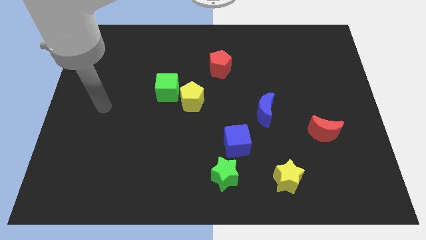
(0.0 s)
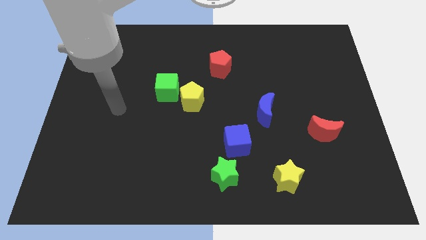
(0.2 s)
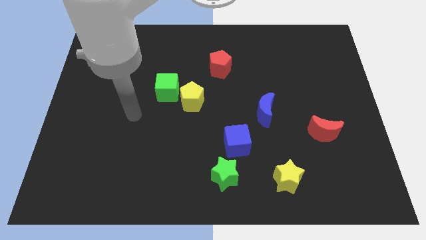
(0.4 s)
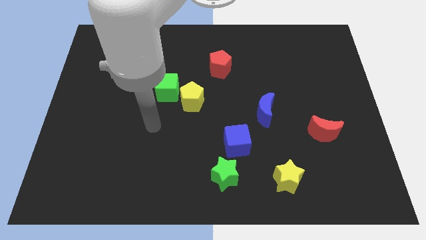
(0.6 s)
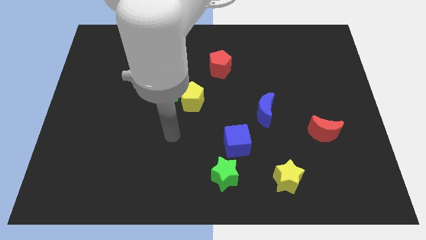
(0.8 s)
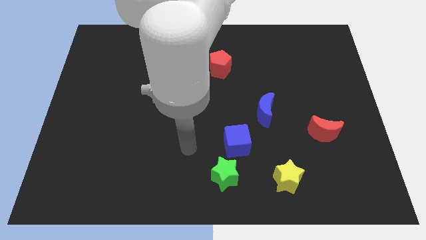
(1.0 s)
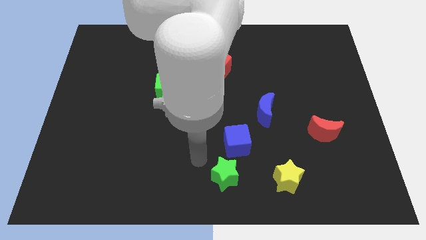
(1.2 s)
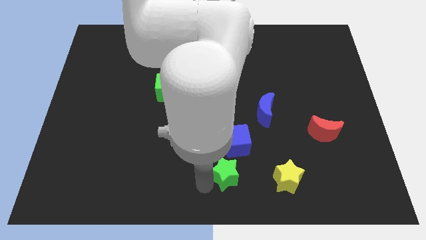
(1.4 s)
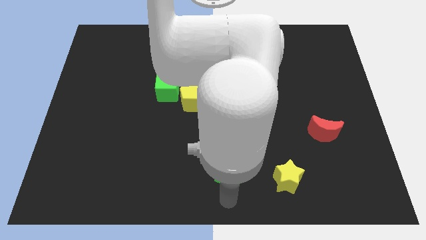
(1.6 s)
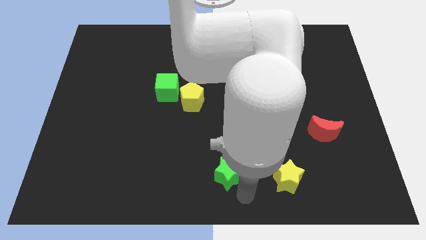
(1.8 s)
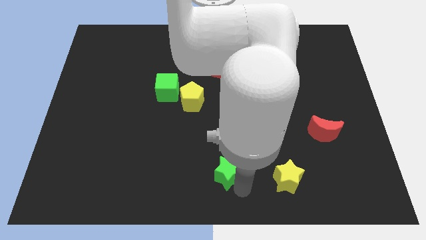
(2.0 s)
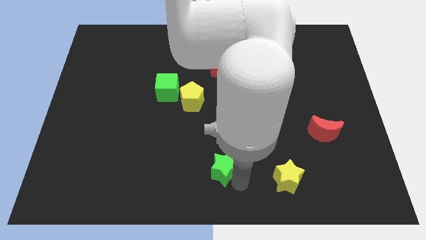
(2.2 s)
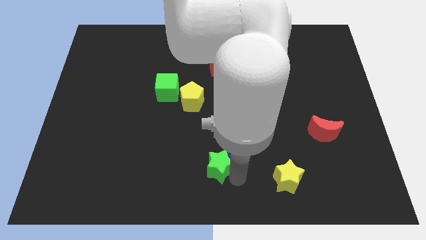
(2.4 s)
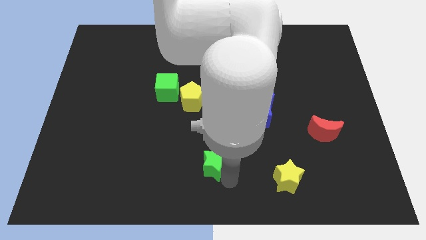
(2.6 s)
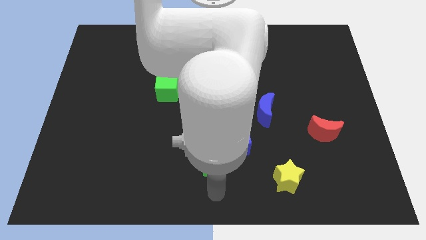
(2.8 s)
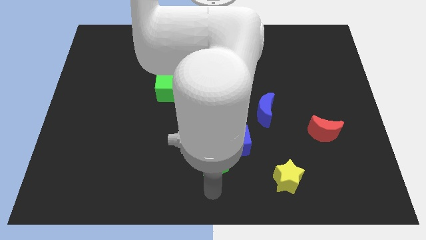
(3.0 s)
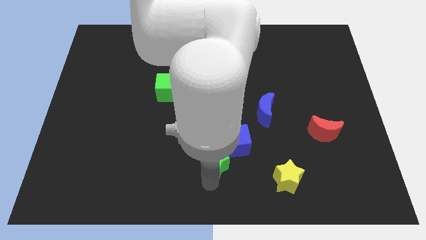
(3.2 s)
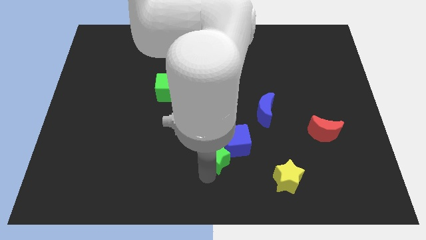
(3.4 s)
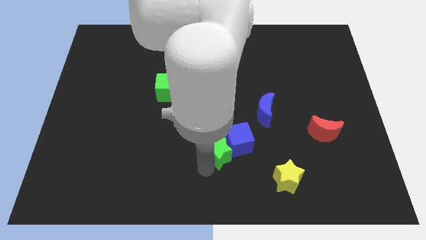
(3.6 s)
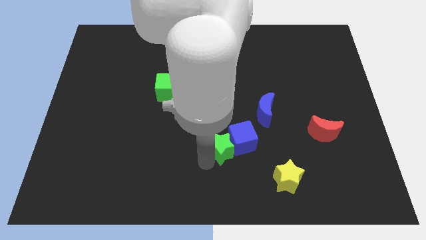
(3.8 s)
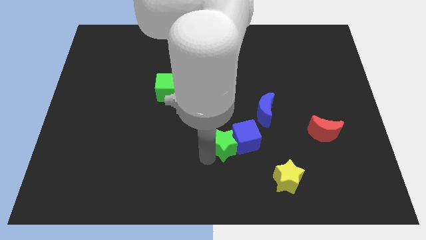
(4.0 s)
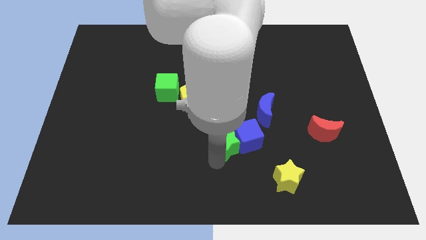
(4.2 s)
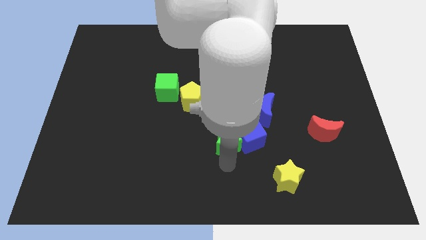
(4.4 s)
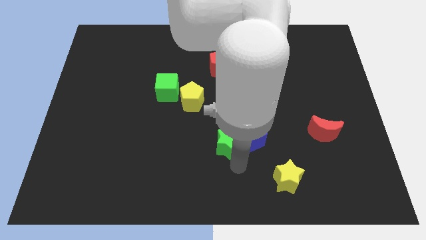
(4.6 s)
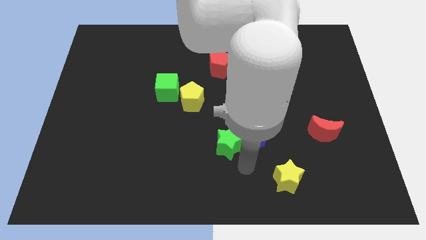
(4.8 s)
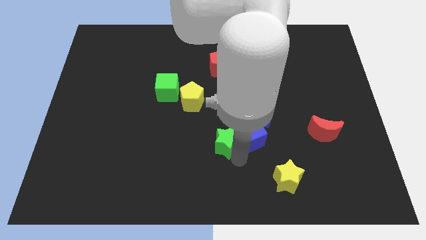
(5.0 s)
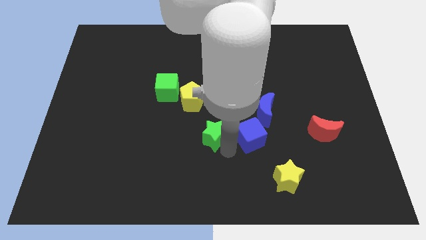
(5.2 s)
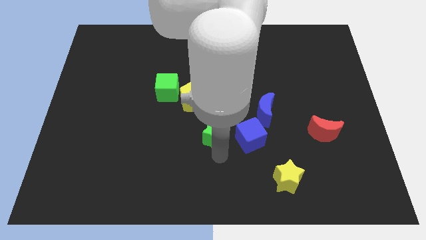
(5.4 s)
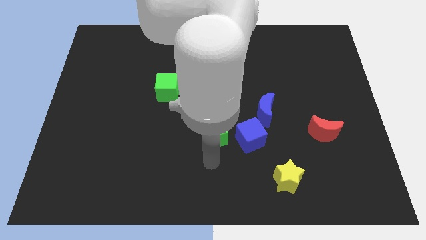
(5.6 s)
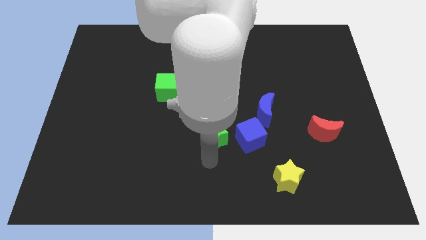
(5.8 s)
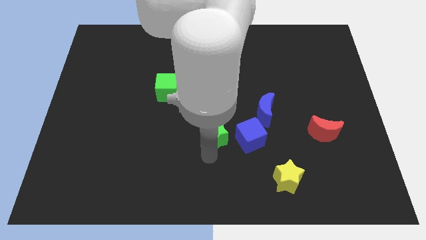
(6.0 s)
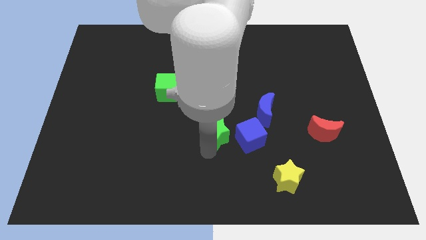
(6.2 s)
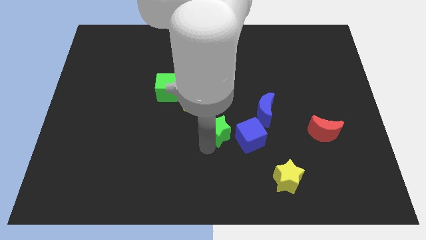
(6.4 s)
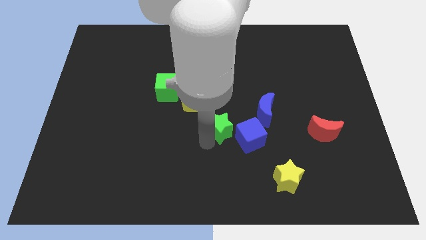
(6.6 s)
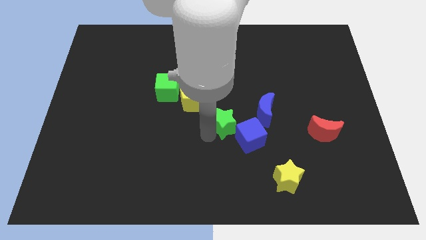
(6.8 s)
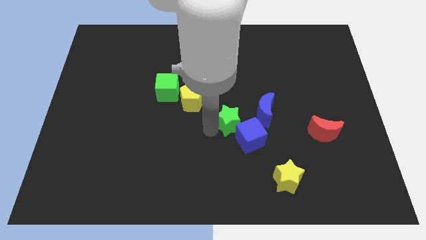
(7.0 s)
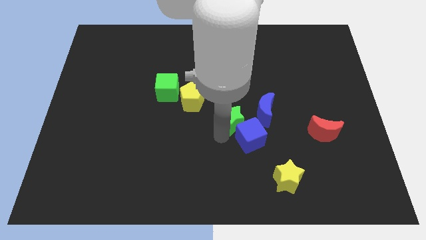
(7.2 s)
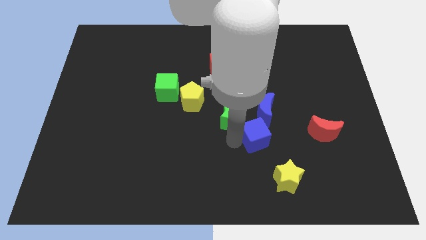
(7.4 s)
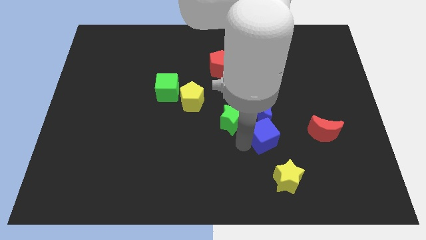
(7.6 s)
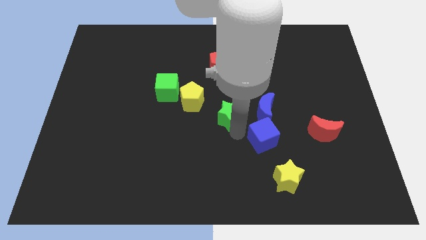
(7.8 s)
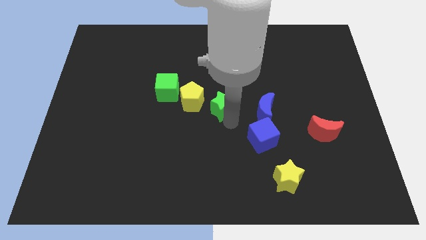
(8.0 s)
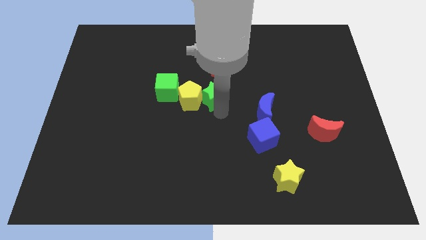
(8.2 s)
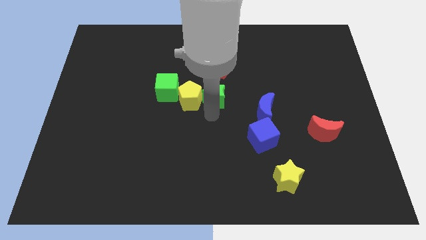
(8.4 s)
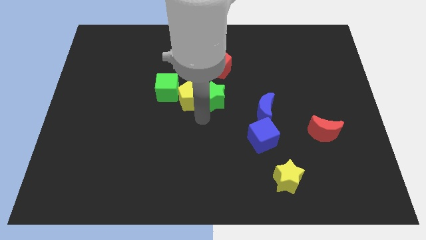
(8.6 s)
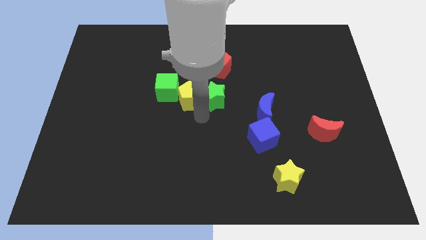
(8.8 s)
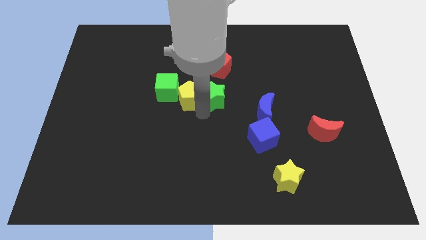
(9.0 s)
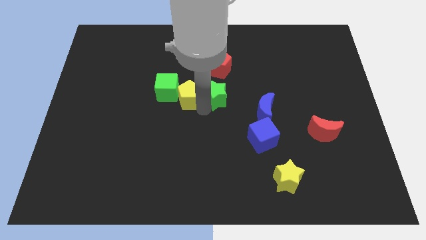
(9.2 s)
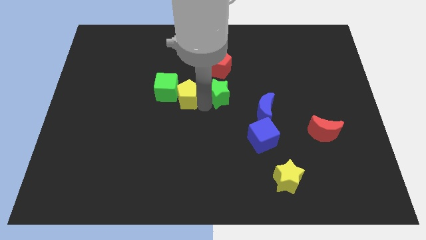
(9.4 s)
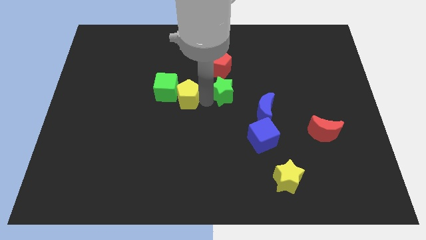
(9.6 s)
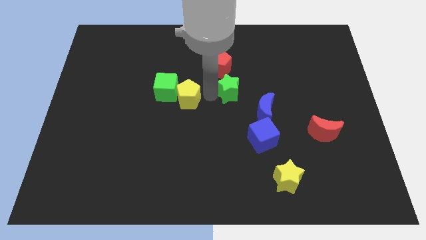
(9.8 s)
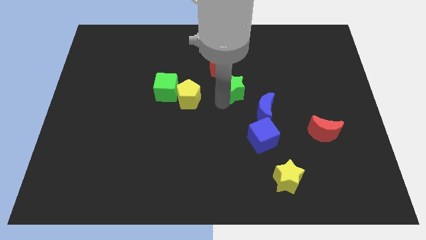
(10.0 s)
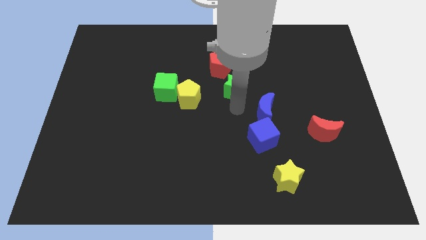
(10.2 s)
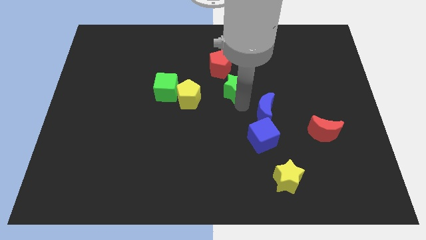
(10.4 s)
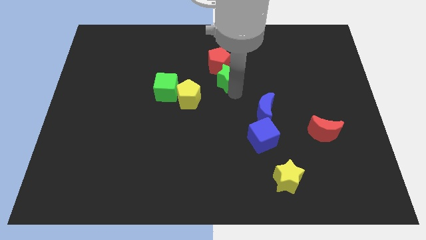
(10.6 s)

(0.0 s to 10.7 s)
move the green star to the red pentagon

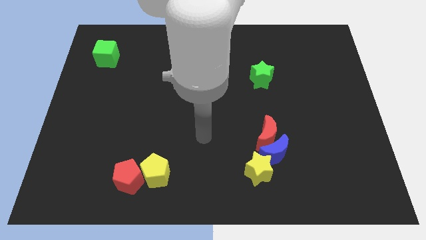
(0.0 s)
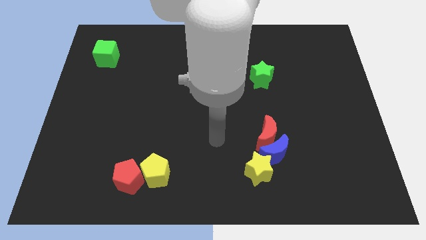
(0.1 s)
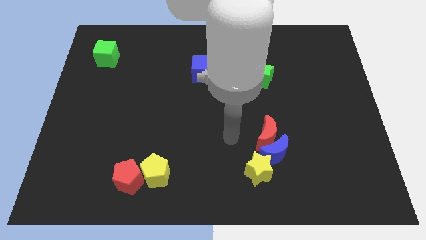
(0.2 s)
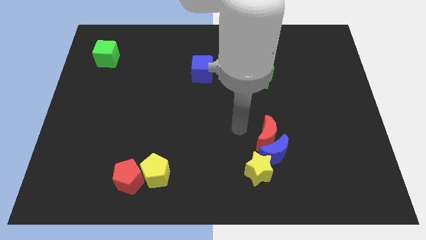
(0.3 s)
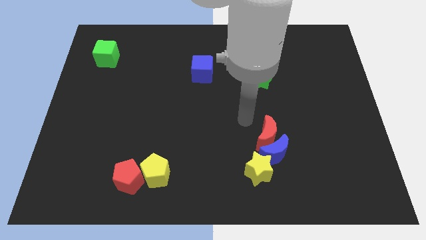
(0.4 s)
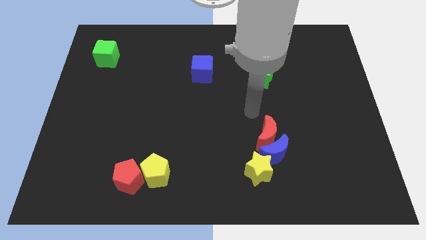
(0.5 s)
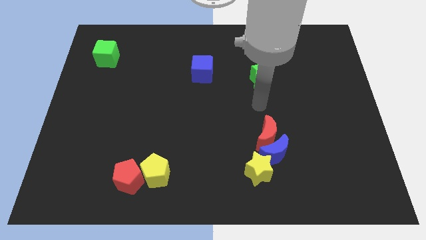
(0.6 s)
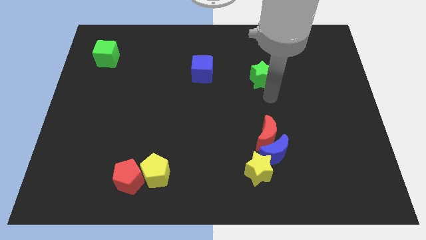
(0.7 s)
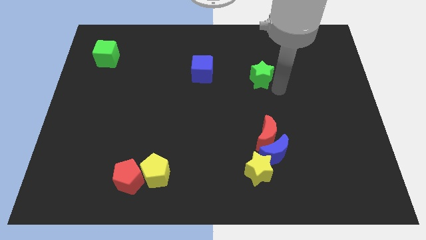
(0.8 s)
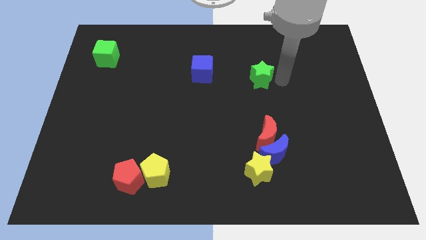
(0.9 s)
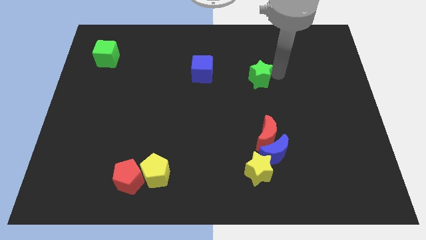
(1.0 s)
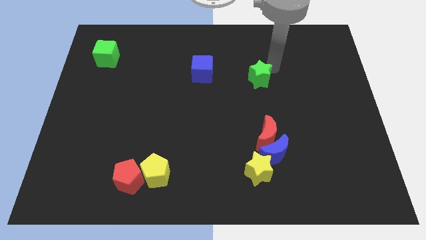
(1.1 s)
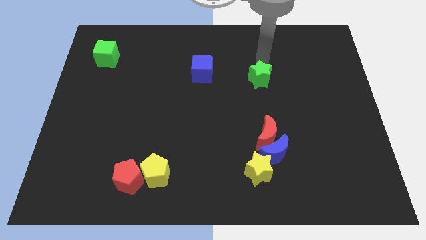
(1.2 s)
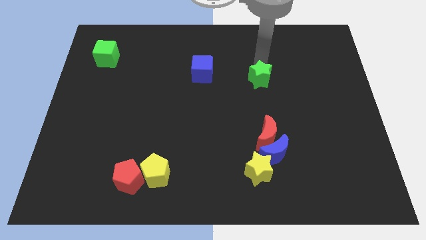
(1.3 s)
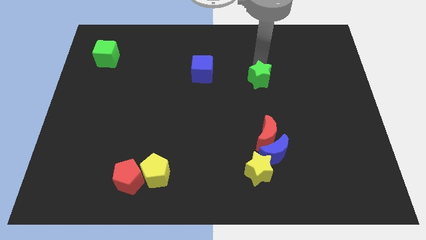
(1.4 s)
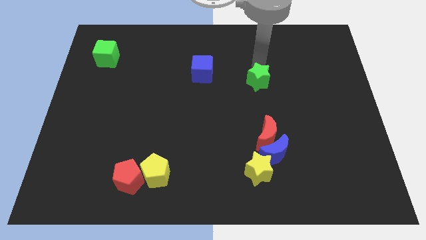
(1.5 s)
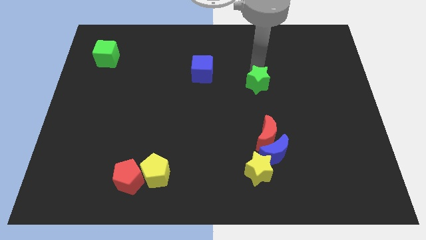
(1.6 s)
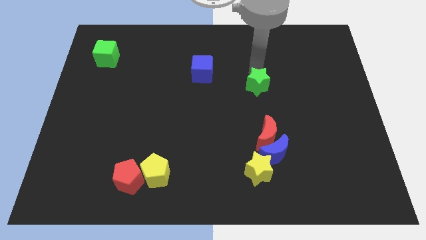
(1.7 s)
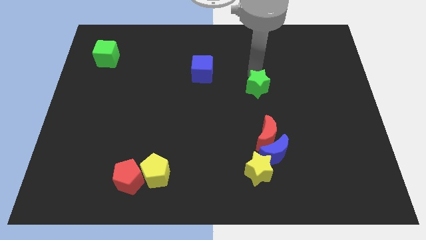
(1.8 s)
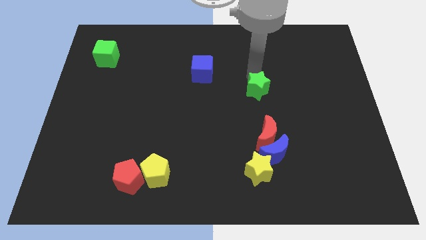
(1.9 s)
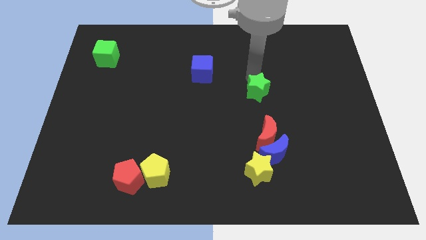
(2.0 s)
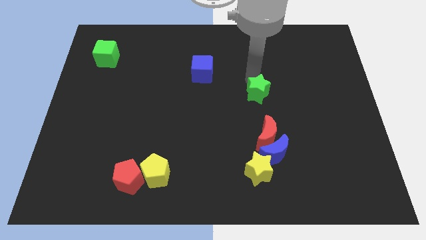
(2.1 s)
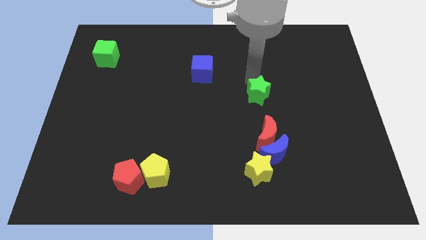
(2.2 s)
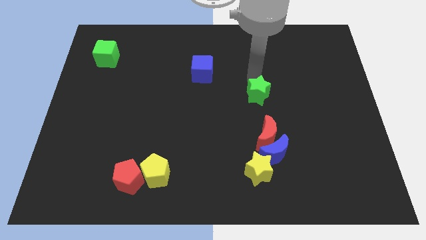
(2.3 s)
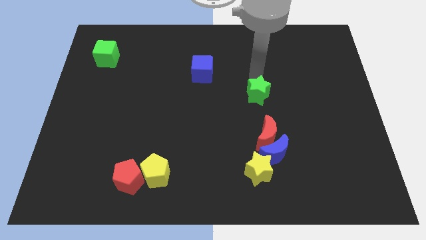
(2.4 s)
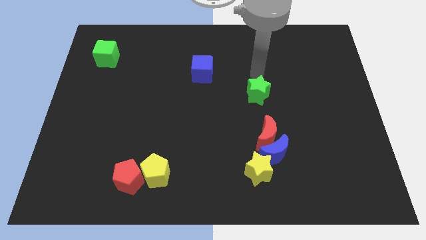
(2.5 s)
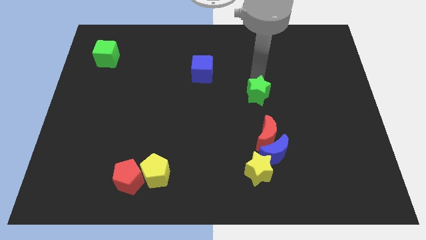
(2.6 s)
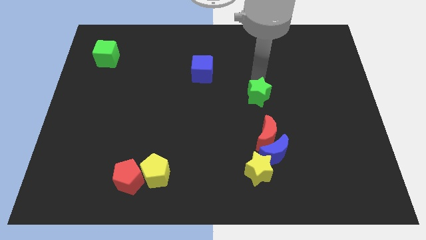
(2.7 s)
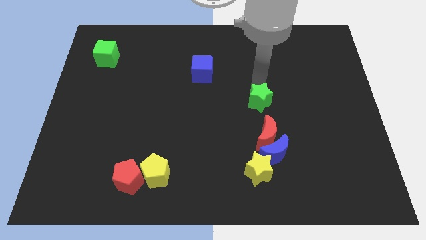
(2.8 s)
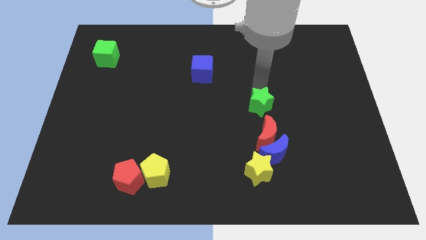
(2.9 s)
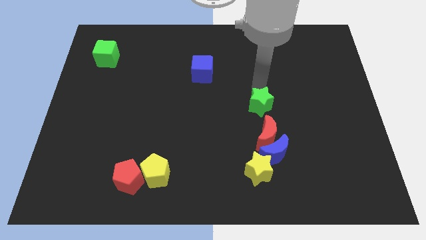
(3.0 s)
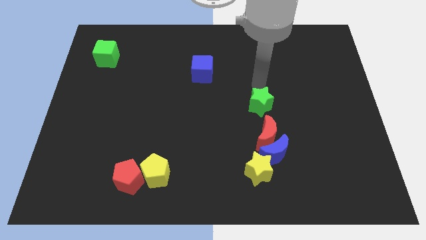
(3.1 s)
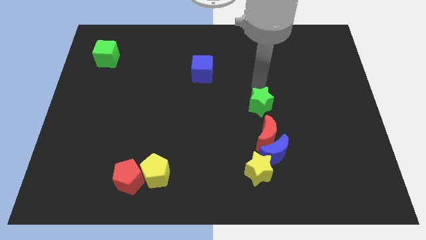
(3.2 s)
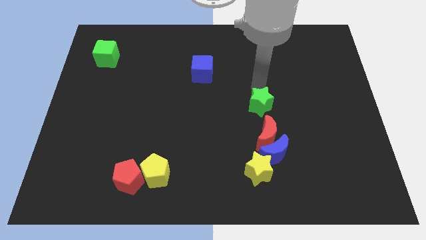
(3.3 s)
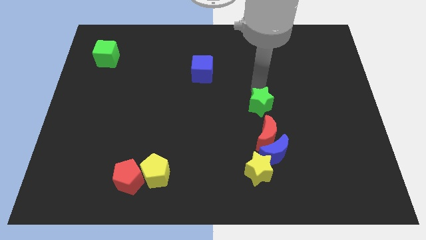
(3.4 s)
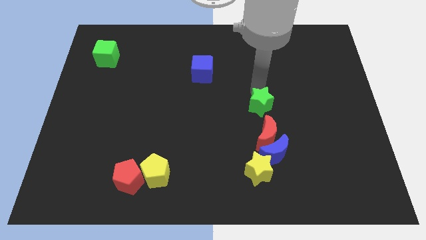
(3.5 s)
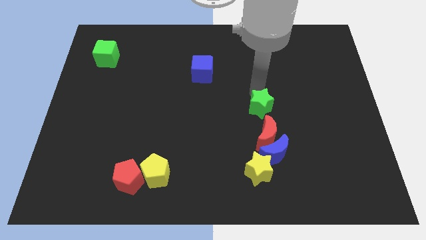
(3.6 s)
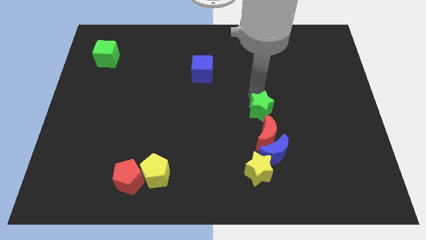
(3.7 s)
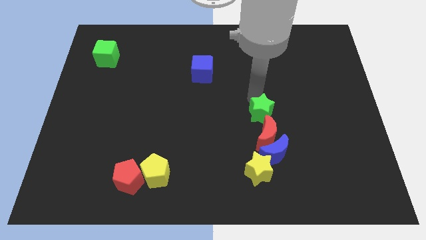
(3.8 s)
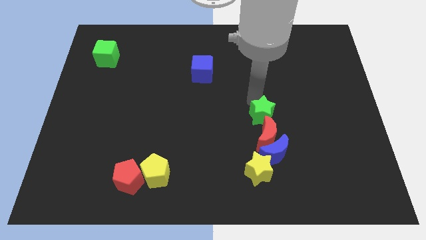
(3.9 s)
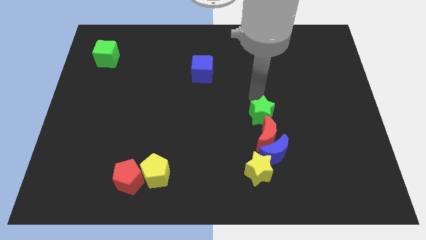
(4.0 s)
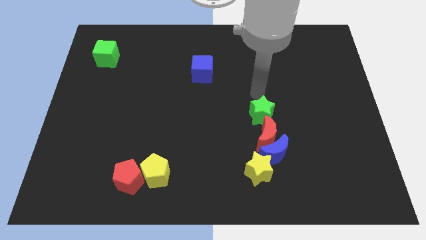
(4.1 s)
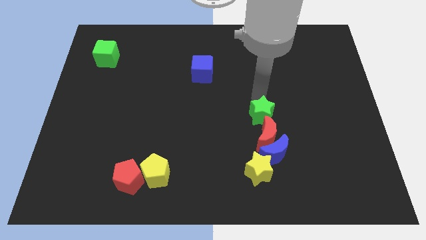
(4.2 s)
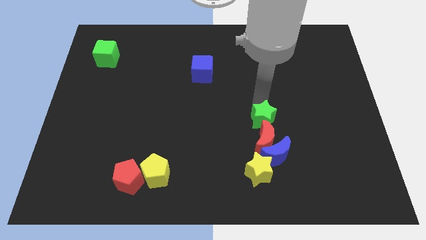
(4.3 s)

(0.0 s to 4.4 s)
move the green star next to the red moon
